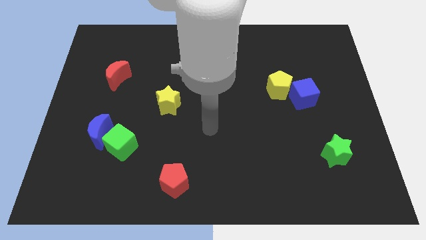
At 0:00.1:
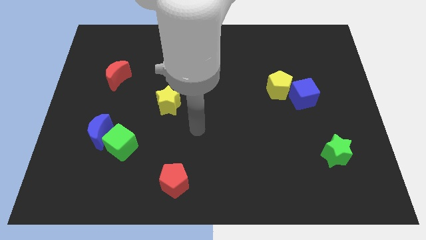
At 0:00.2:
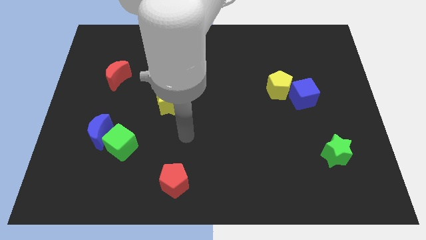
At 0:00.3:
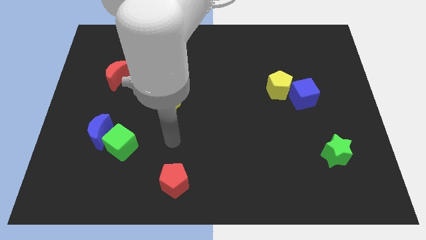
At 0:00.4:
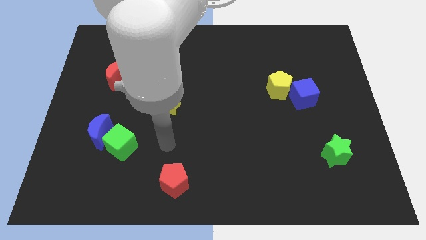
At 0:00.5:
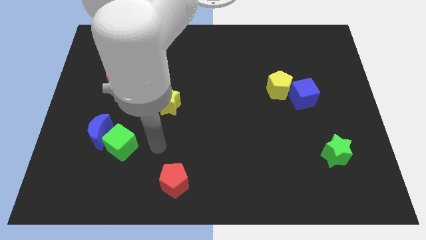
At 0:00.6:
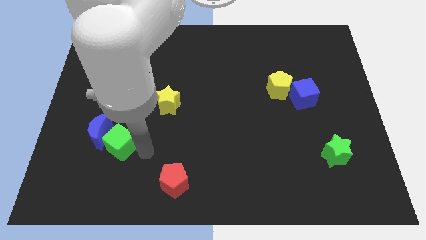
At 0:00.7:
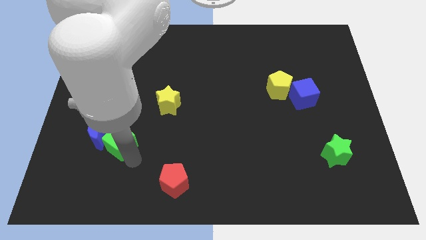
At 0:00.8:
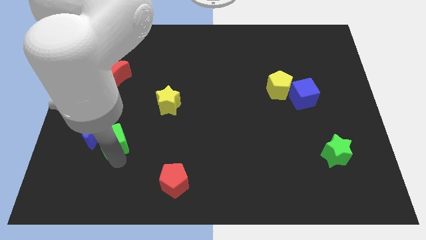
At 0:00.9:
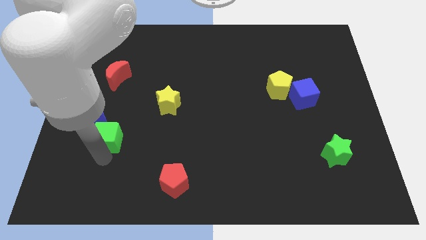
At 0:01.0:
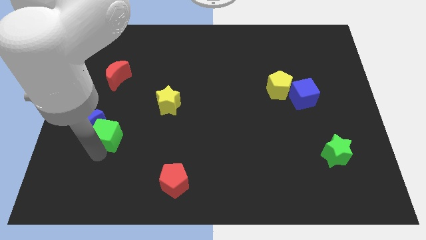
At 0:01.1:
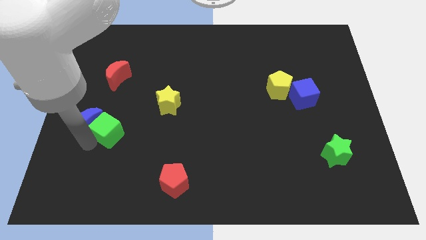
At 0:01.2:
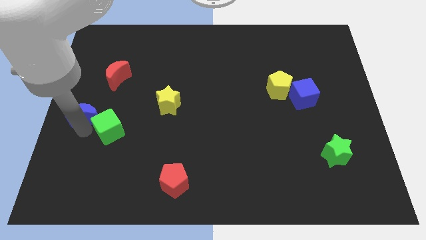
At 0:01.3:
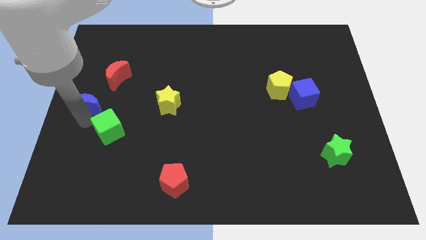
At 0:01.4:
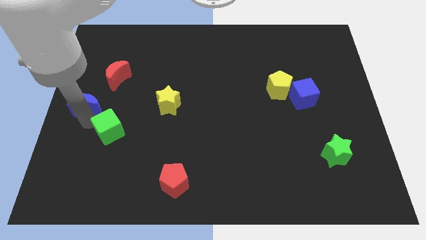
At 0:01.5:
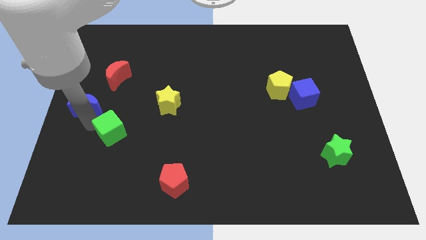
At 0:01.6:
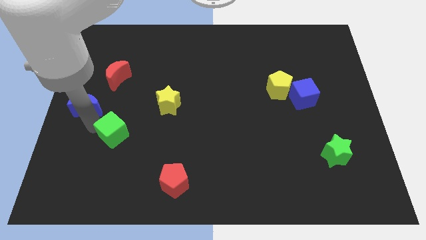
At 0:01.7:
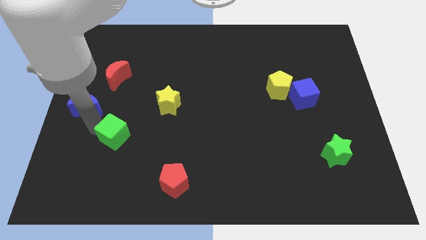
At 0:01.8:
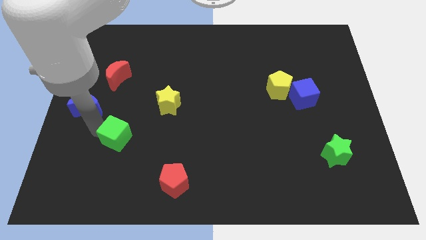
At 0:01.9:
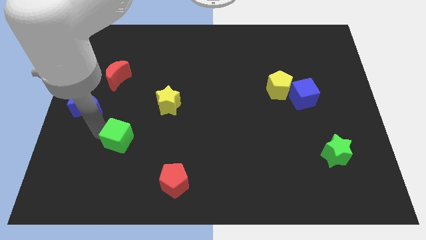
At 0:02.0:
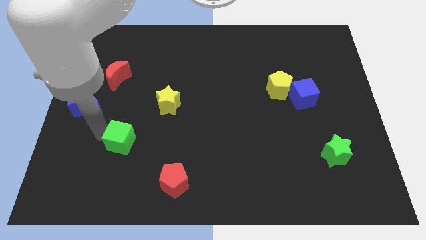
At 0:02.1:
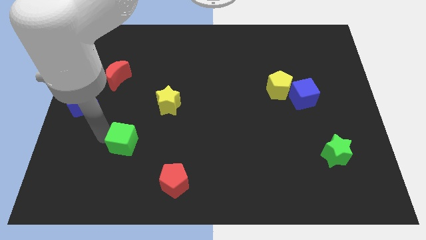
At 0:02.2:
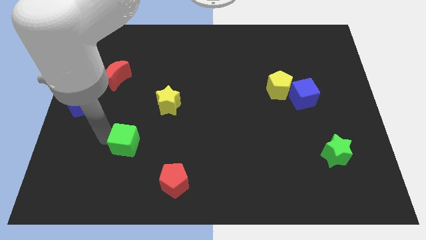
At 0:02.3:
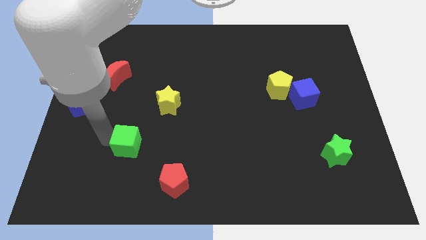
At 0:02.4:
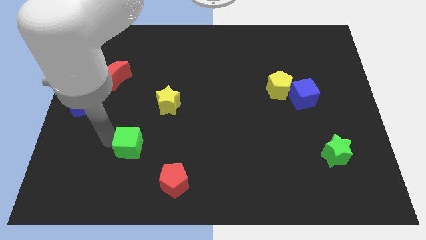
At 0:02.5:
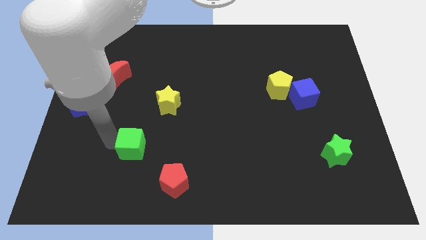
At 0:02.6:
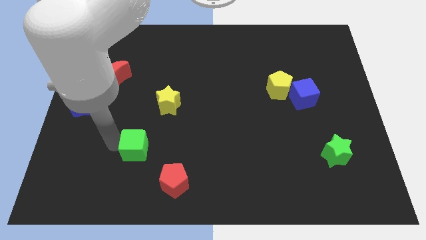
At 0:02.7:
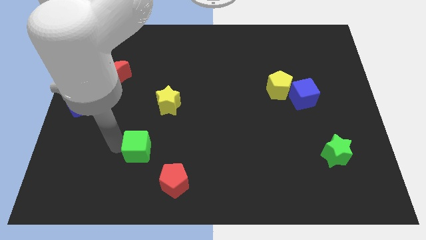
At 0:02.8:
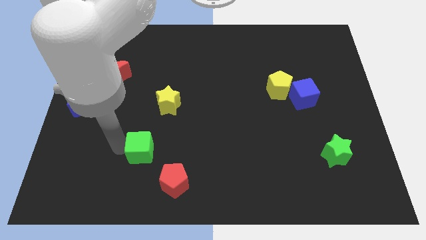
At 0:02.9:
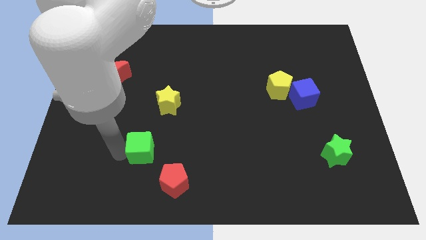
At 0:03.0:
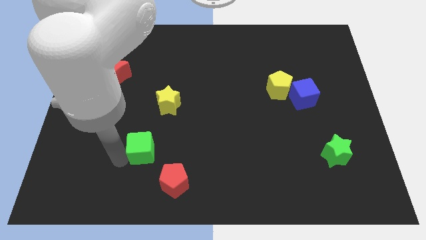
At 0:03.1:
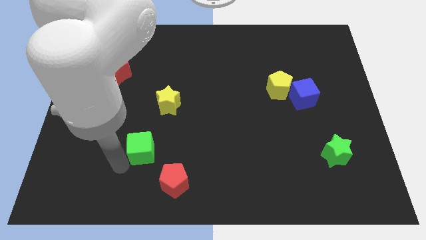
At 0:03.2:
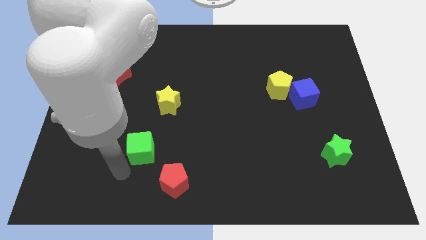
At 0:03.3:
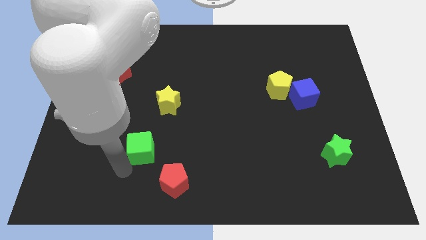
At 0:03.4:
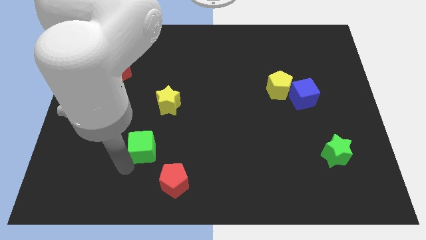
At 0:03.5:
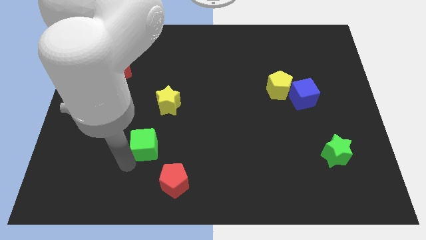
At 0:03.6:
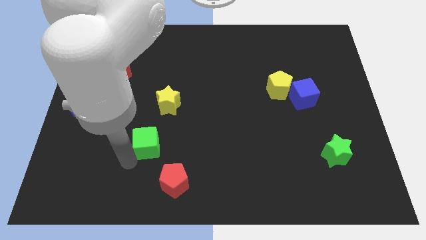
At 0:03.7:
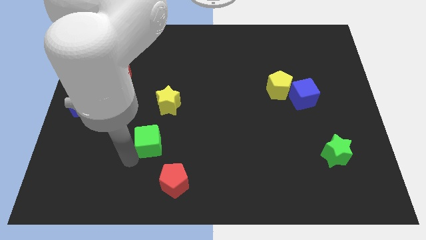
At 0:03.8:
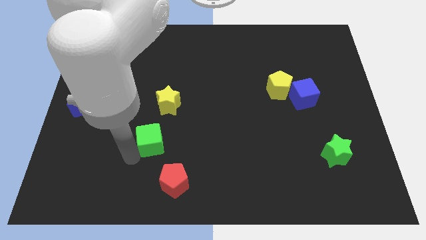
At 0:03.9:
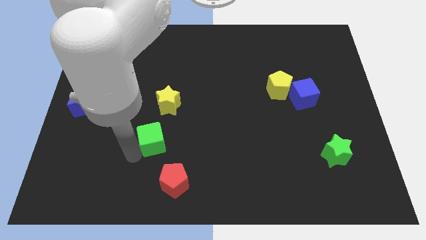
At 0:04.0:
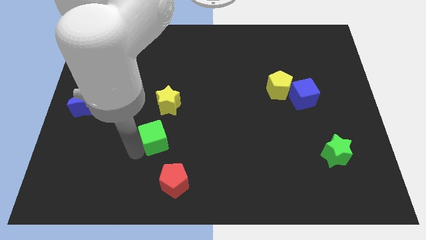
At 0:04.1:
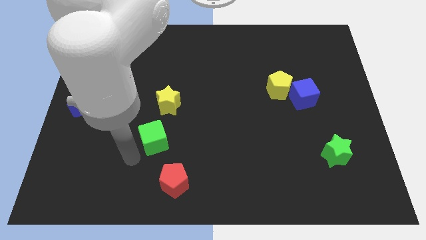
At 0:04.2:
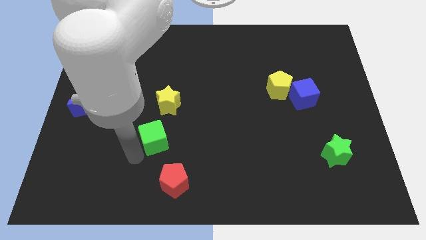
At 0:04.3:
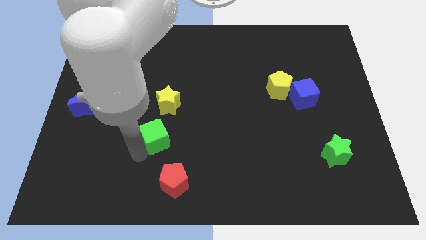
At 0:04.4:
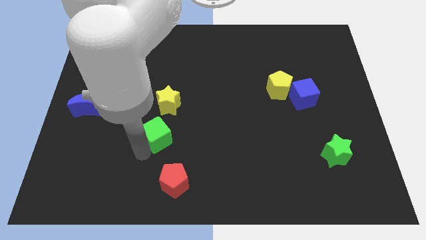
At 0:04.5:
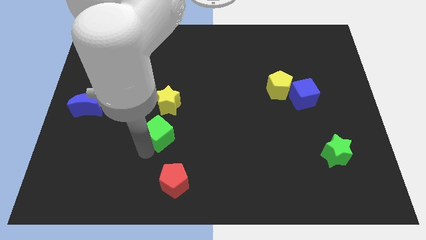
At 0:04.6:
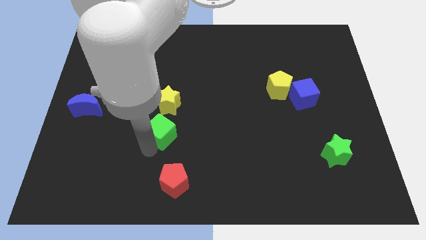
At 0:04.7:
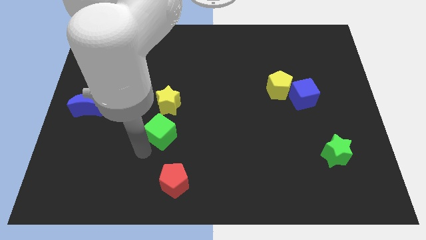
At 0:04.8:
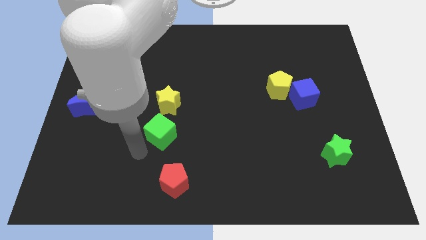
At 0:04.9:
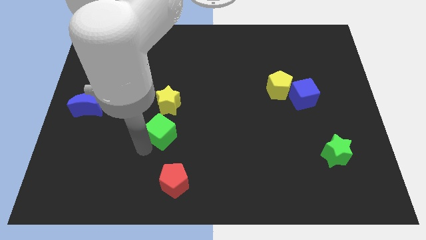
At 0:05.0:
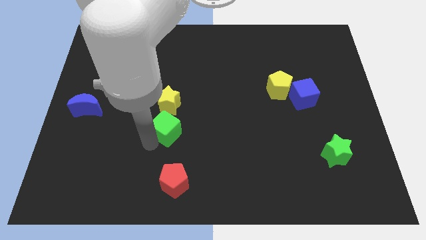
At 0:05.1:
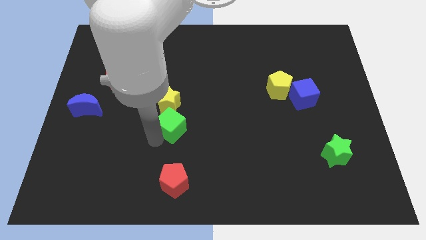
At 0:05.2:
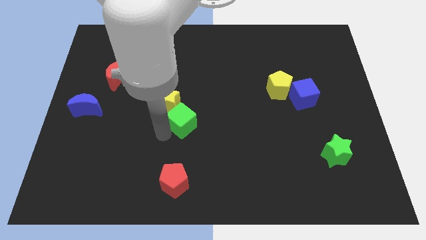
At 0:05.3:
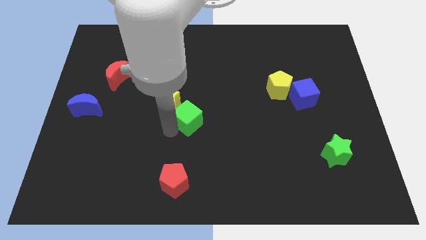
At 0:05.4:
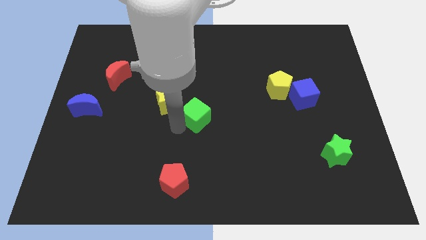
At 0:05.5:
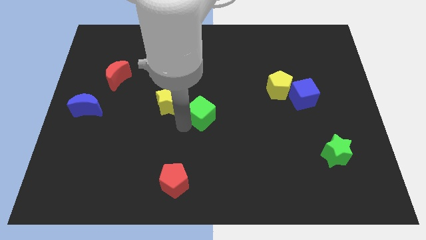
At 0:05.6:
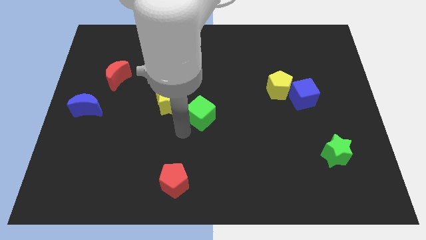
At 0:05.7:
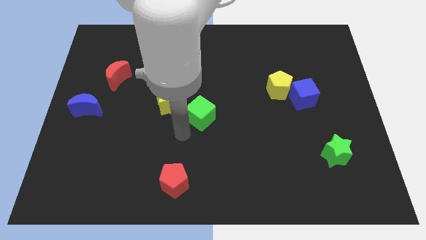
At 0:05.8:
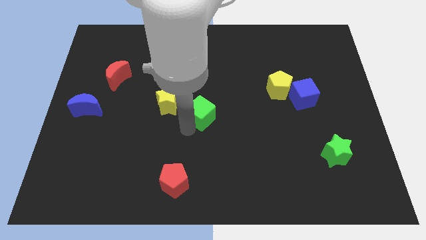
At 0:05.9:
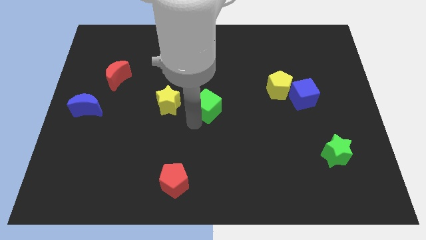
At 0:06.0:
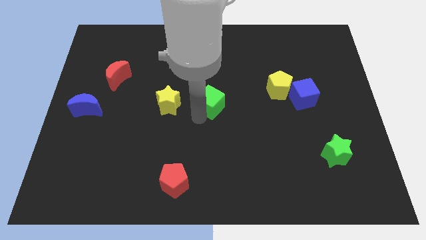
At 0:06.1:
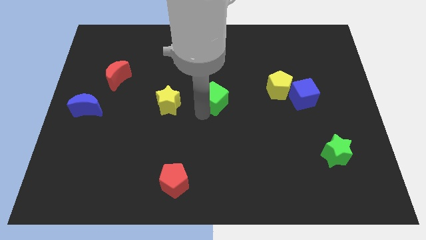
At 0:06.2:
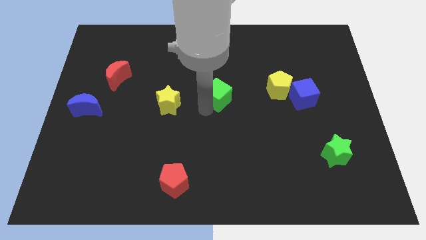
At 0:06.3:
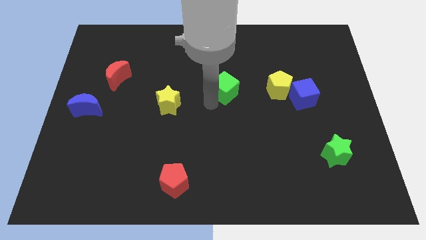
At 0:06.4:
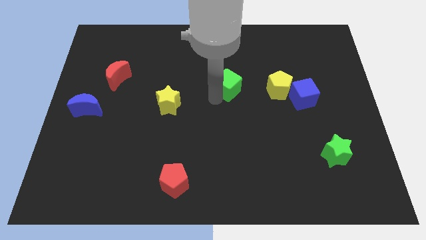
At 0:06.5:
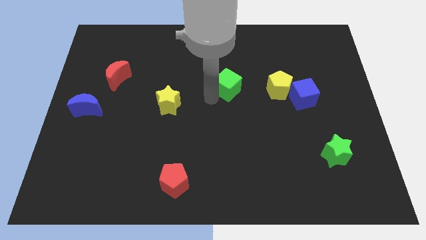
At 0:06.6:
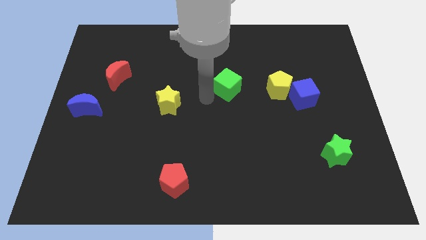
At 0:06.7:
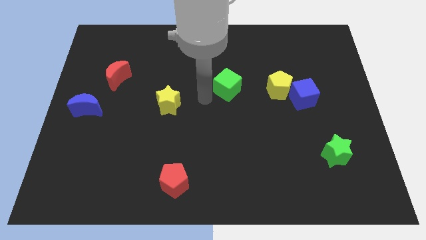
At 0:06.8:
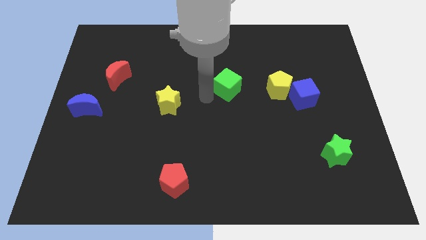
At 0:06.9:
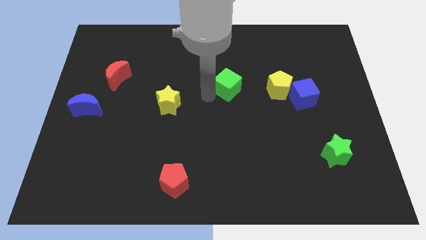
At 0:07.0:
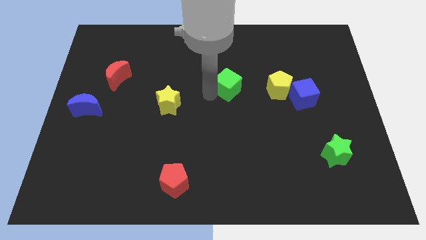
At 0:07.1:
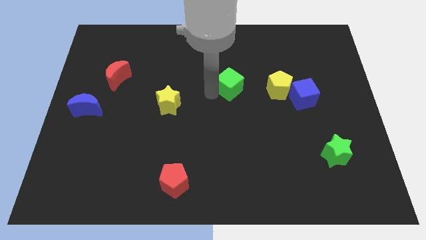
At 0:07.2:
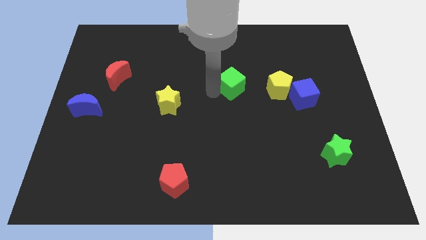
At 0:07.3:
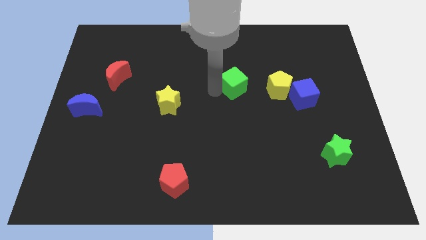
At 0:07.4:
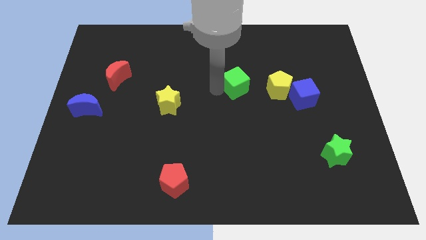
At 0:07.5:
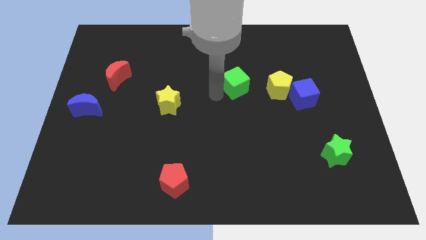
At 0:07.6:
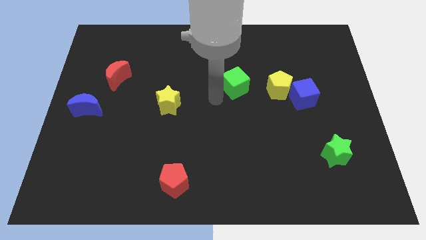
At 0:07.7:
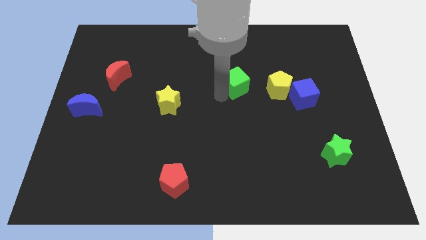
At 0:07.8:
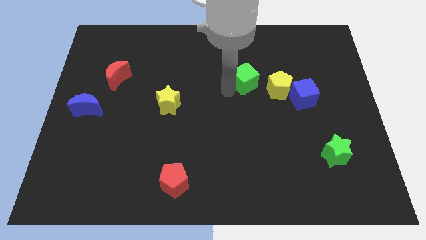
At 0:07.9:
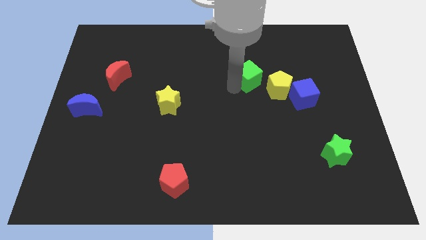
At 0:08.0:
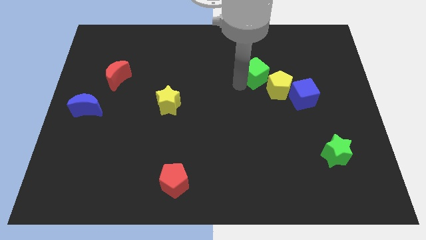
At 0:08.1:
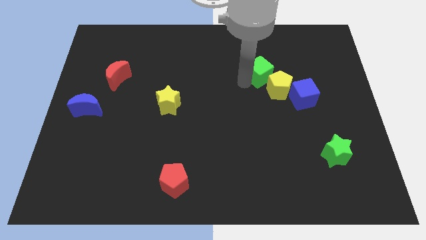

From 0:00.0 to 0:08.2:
slide the green cube above the yellow pentagon
